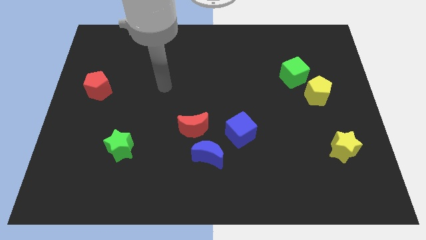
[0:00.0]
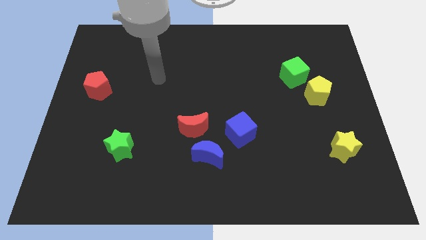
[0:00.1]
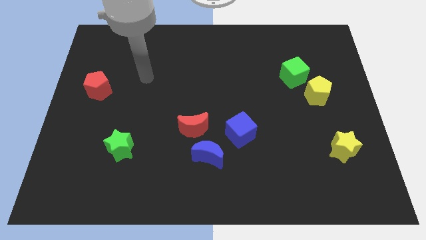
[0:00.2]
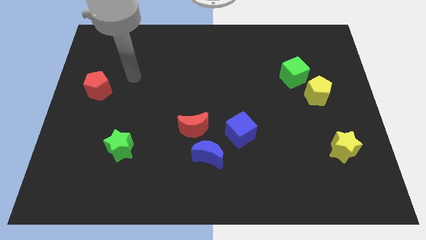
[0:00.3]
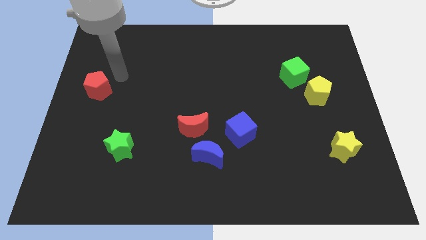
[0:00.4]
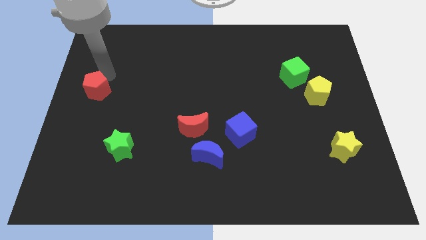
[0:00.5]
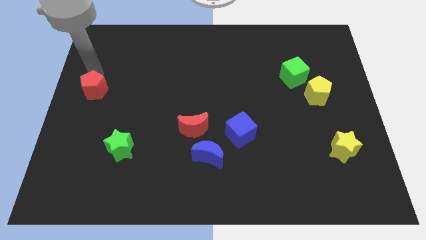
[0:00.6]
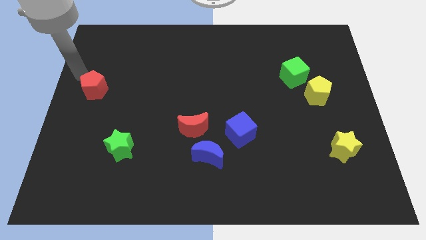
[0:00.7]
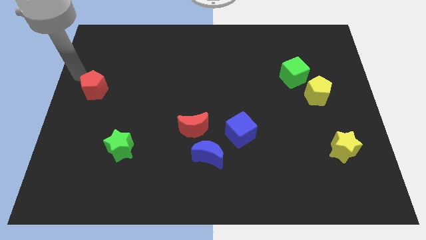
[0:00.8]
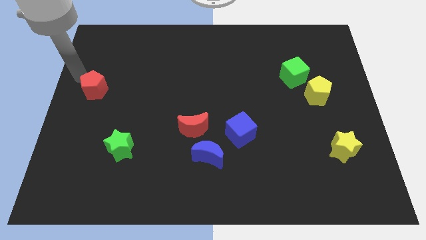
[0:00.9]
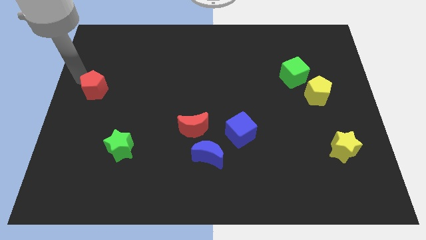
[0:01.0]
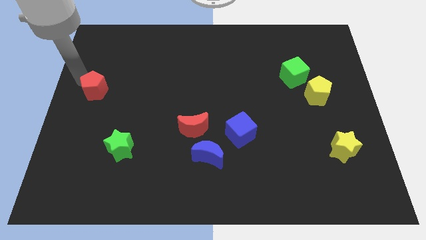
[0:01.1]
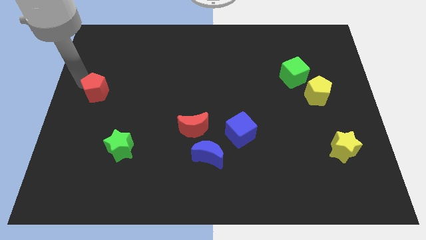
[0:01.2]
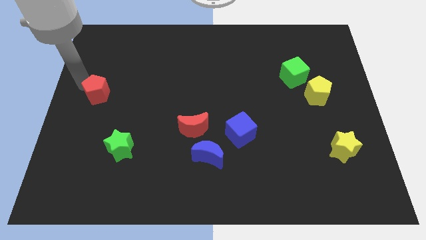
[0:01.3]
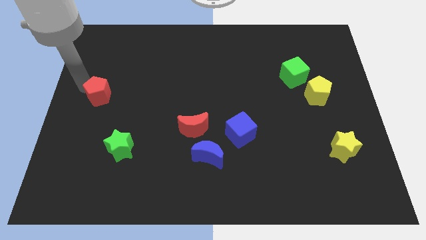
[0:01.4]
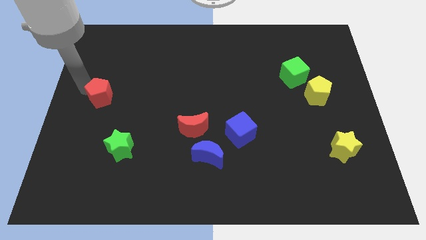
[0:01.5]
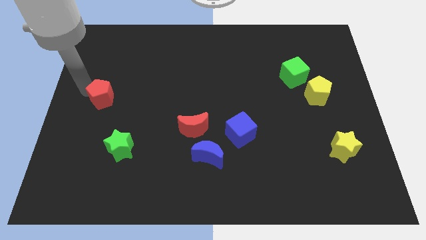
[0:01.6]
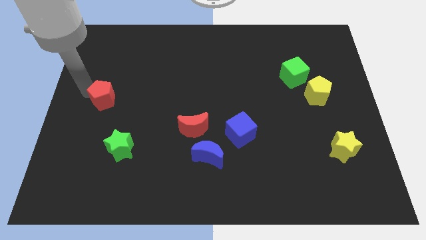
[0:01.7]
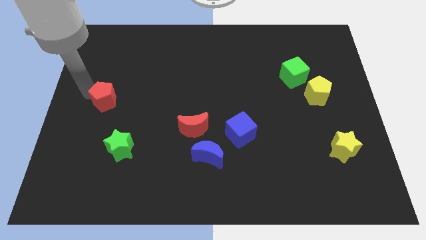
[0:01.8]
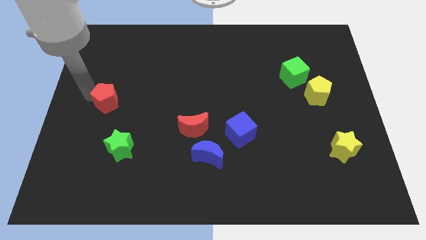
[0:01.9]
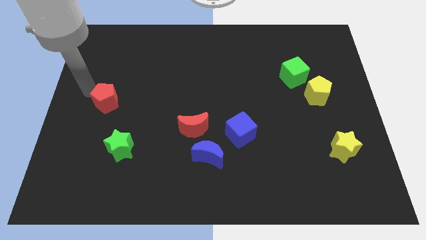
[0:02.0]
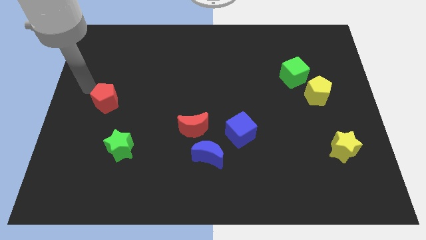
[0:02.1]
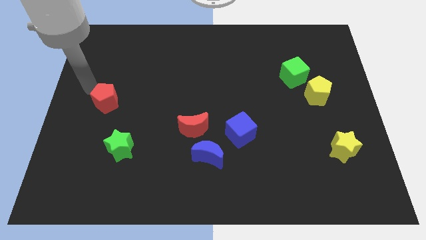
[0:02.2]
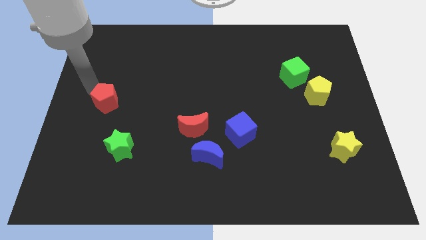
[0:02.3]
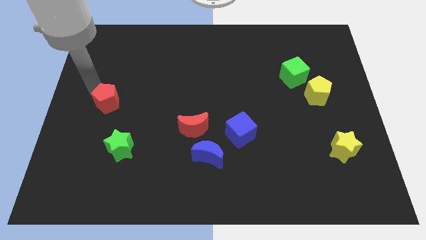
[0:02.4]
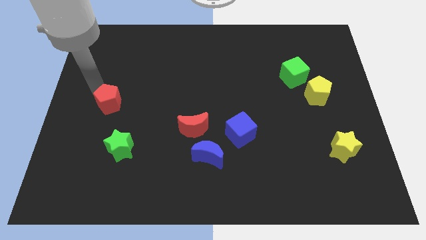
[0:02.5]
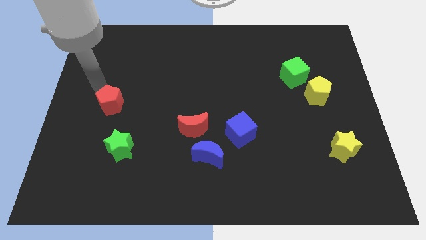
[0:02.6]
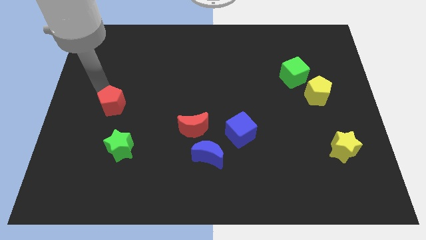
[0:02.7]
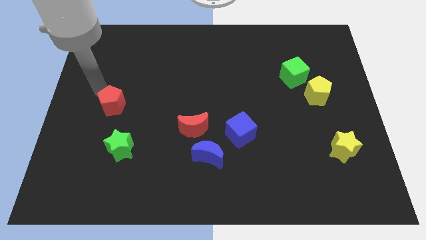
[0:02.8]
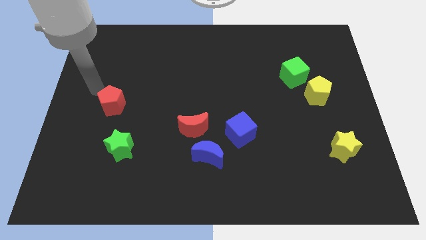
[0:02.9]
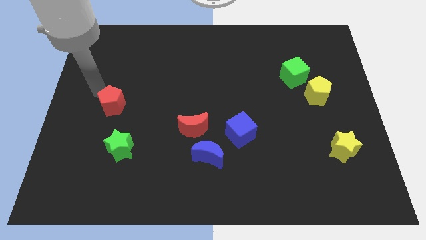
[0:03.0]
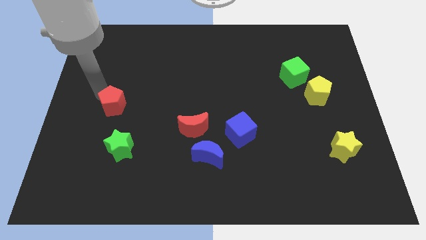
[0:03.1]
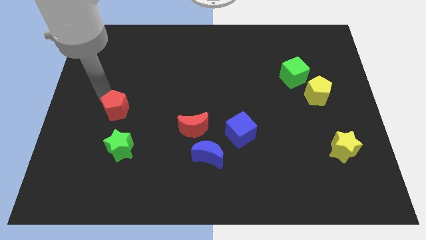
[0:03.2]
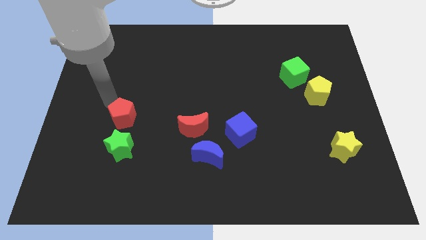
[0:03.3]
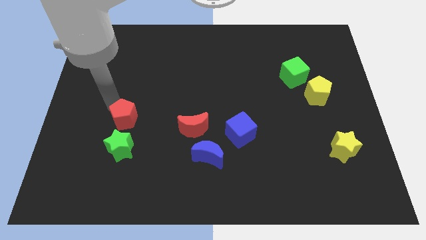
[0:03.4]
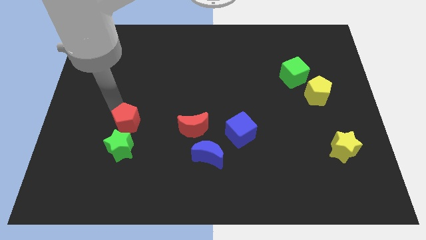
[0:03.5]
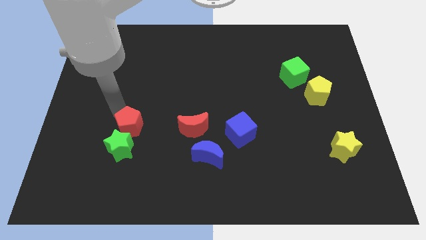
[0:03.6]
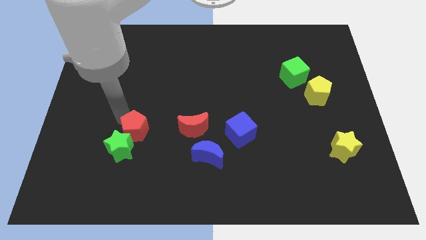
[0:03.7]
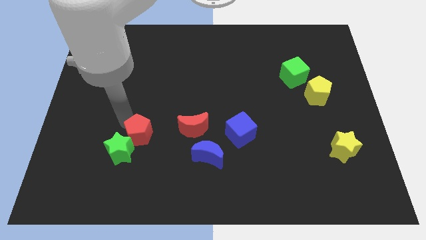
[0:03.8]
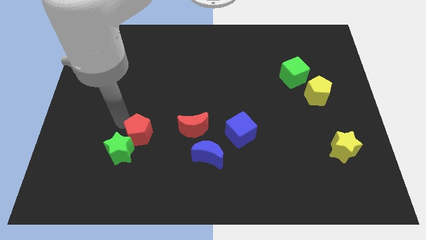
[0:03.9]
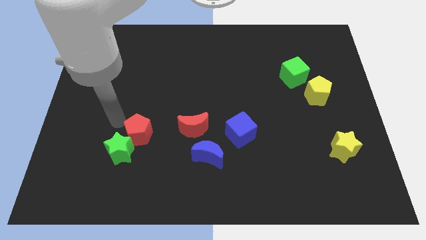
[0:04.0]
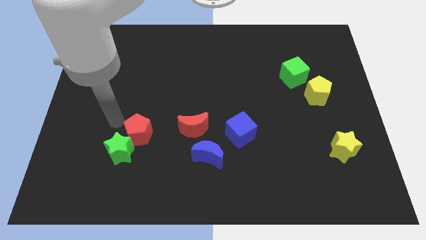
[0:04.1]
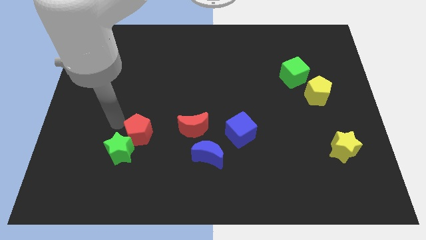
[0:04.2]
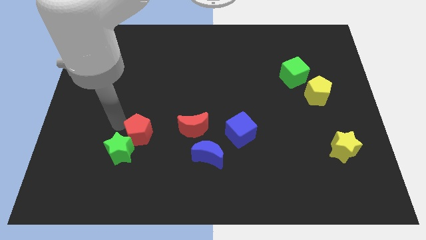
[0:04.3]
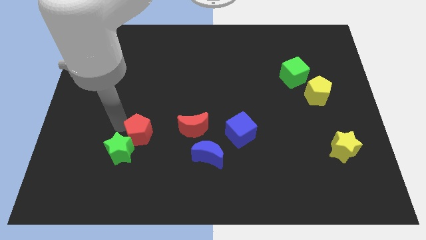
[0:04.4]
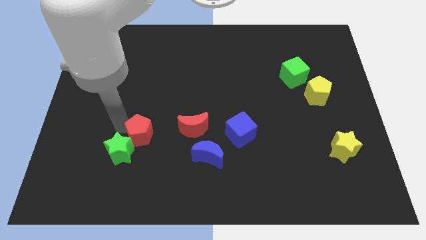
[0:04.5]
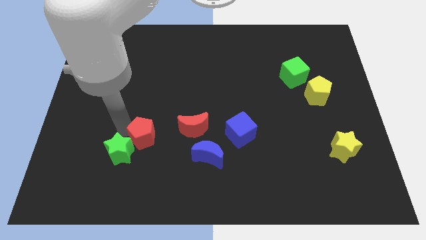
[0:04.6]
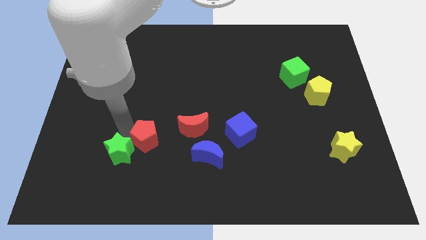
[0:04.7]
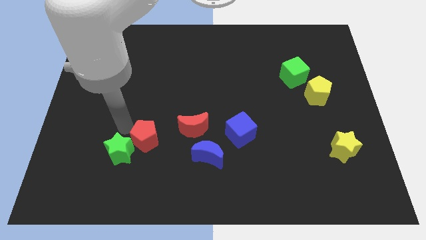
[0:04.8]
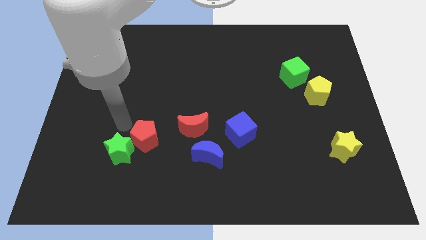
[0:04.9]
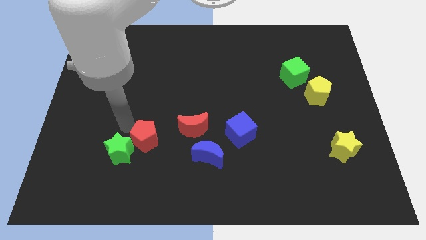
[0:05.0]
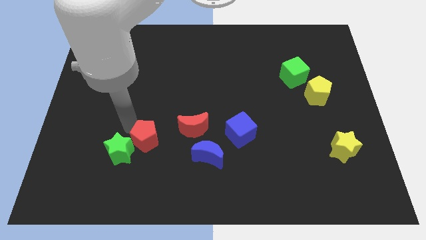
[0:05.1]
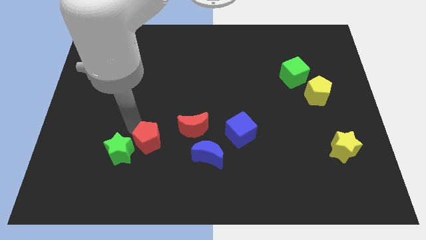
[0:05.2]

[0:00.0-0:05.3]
slide the red pentagon downwards and right

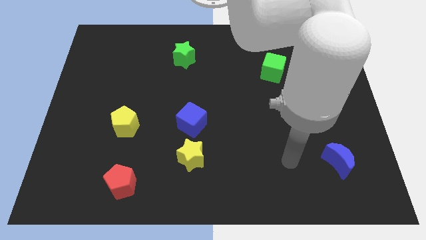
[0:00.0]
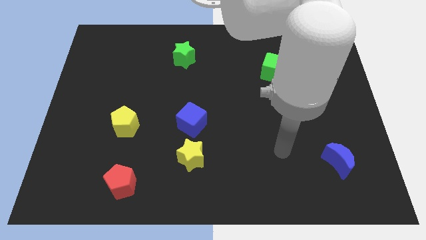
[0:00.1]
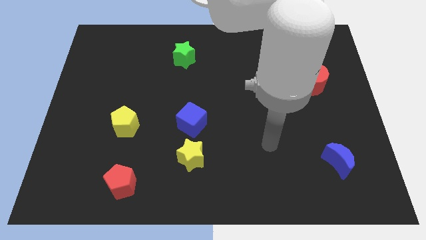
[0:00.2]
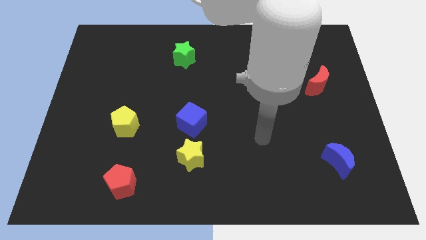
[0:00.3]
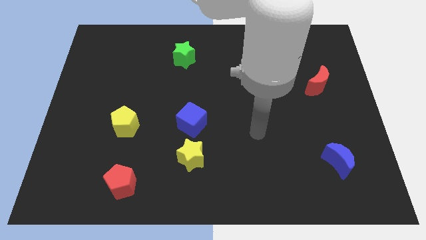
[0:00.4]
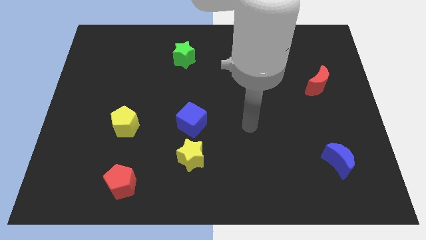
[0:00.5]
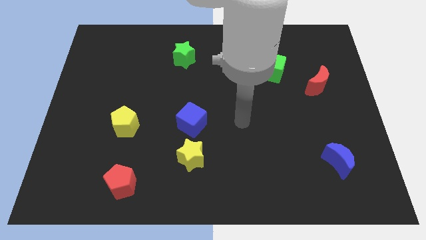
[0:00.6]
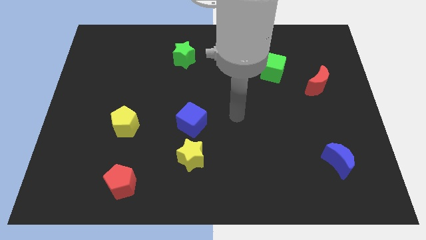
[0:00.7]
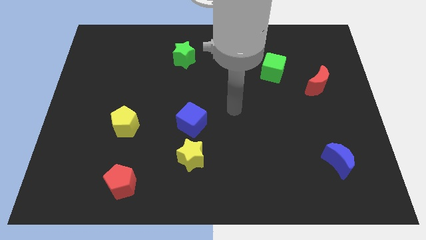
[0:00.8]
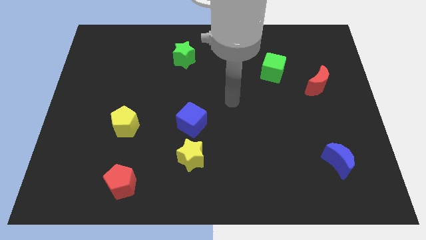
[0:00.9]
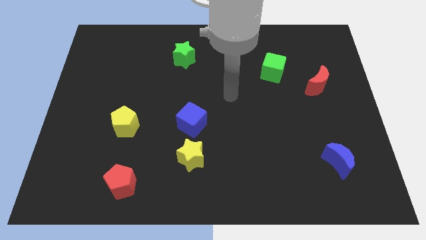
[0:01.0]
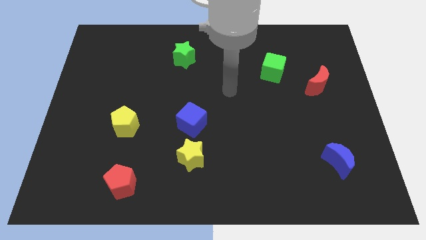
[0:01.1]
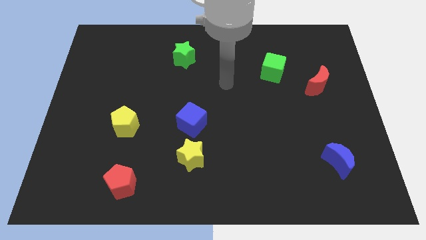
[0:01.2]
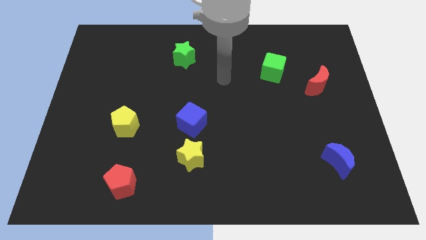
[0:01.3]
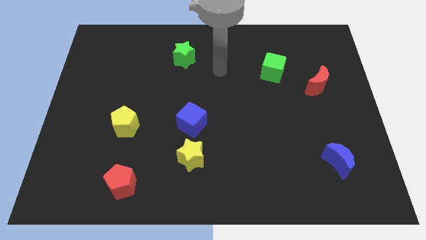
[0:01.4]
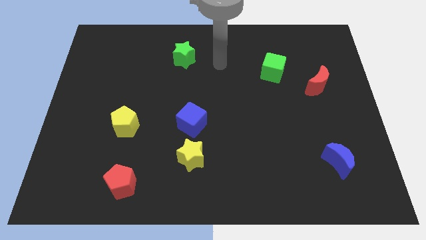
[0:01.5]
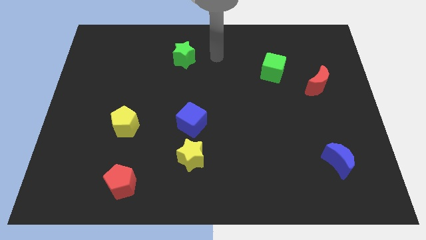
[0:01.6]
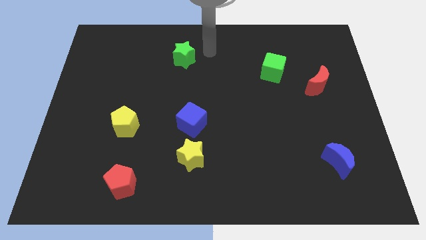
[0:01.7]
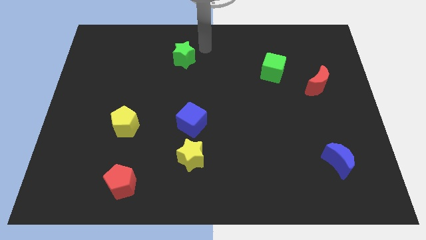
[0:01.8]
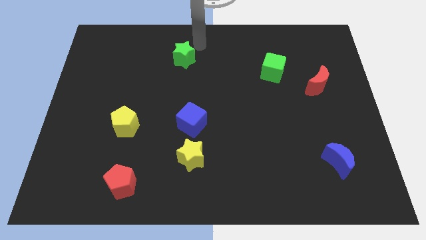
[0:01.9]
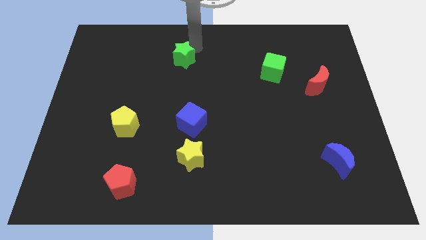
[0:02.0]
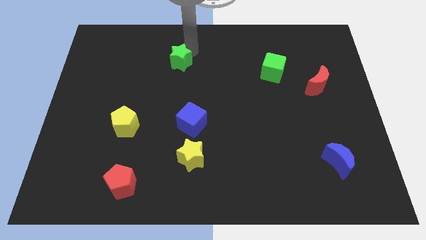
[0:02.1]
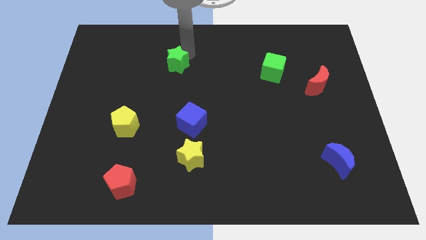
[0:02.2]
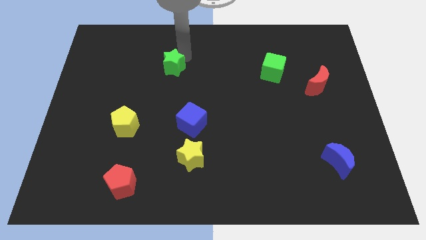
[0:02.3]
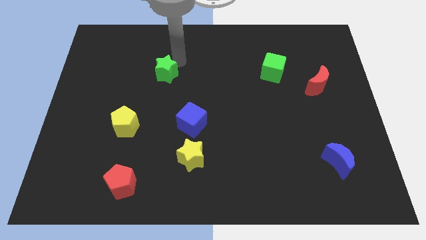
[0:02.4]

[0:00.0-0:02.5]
slide the green star downwards and left diagonally a little bit
